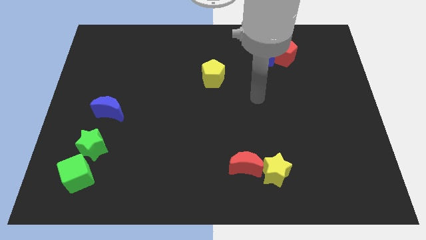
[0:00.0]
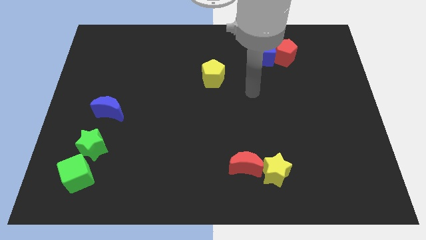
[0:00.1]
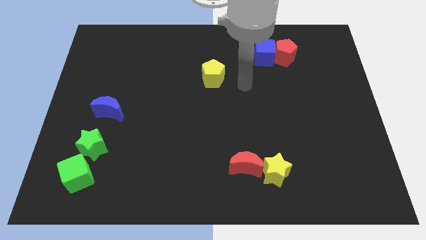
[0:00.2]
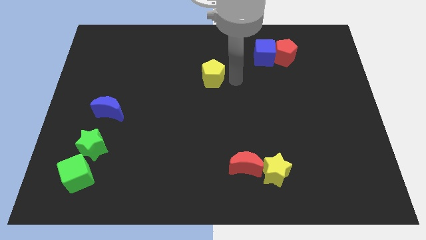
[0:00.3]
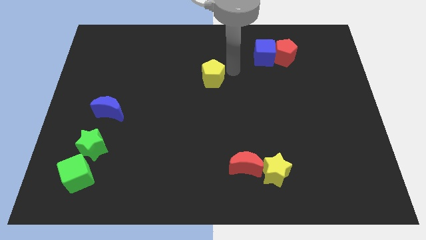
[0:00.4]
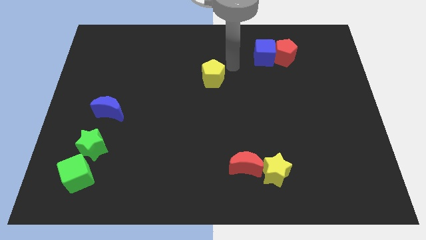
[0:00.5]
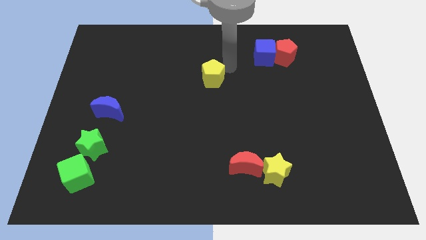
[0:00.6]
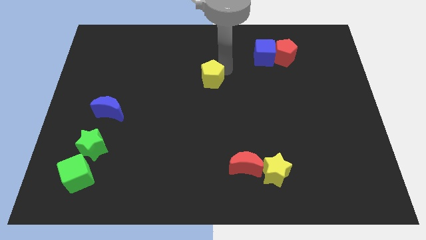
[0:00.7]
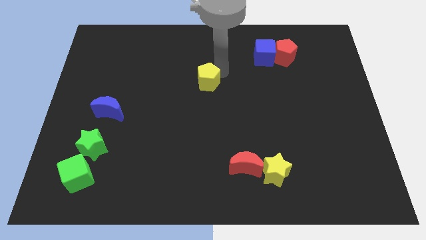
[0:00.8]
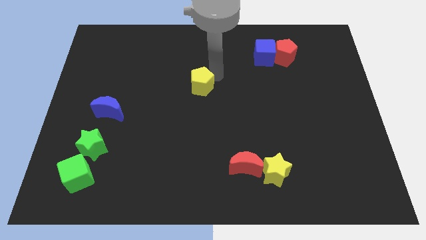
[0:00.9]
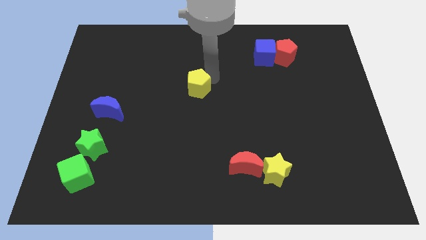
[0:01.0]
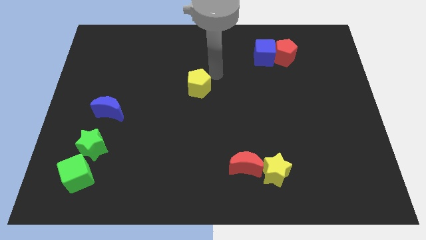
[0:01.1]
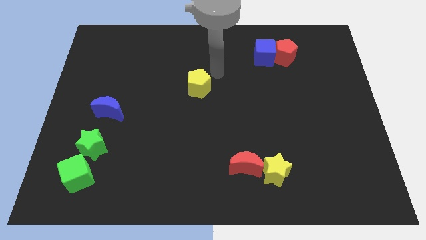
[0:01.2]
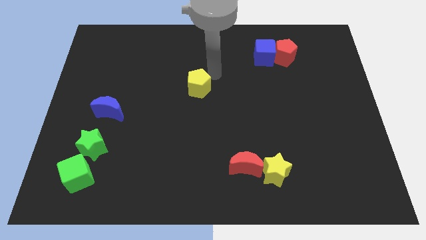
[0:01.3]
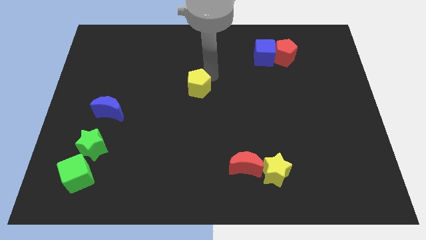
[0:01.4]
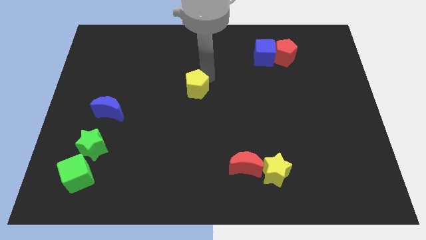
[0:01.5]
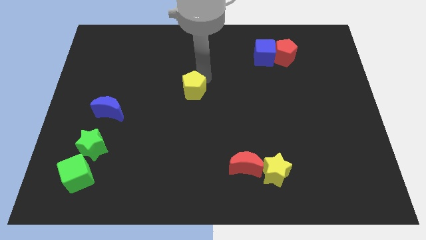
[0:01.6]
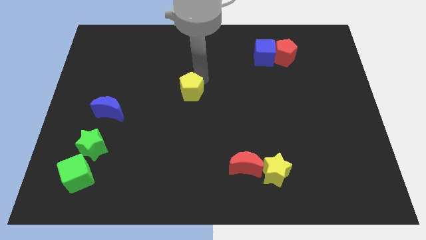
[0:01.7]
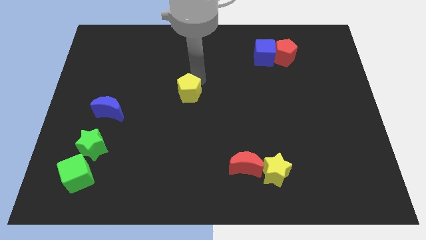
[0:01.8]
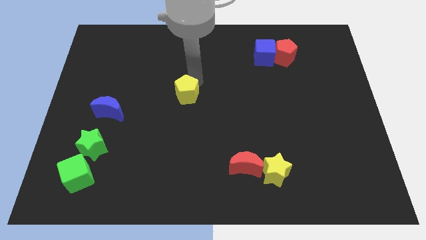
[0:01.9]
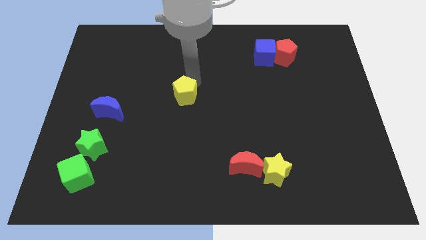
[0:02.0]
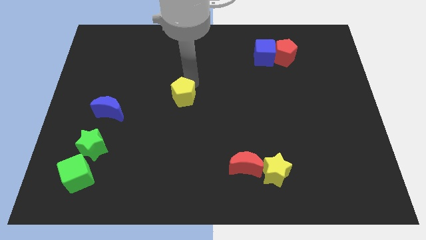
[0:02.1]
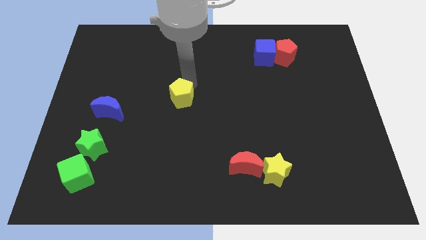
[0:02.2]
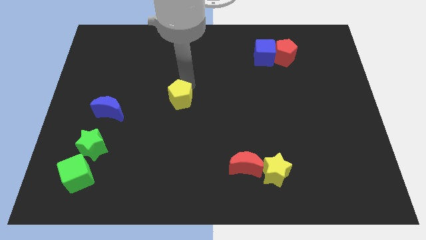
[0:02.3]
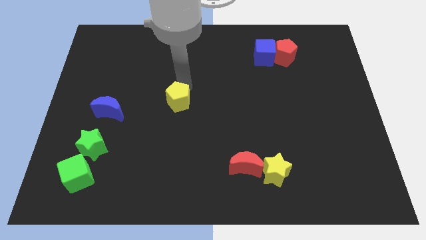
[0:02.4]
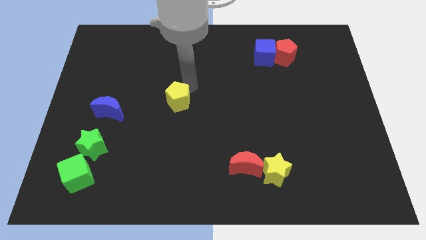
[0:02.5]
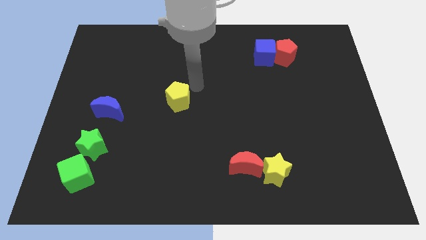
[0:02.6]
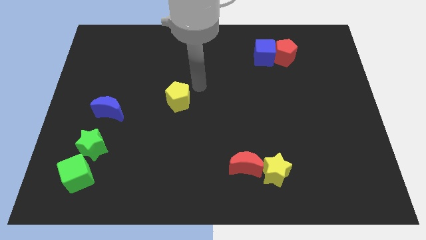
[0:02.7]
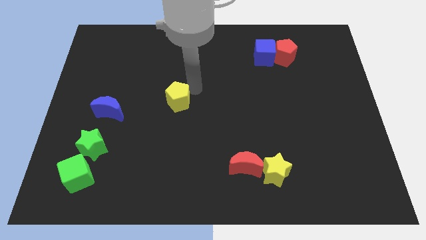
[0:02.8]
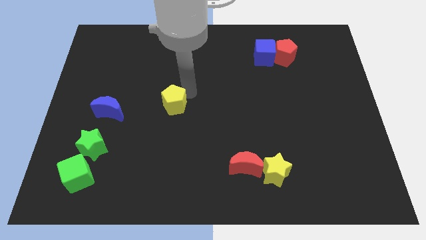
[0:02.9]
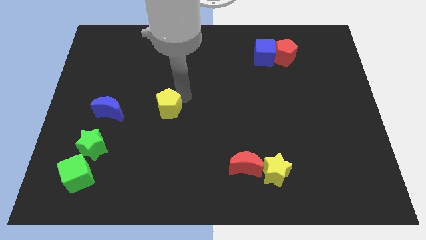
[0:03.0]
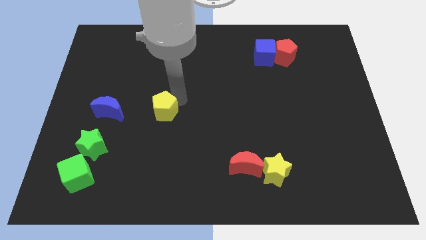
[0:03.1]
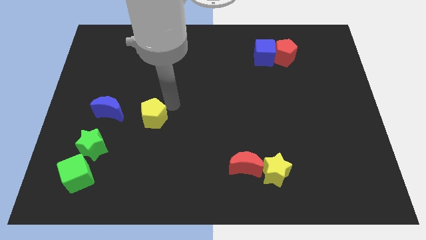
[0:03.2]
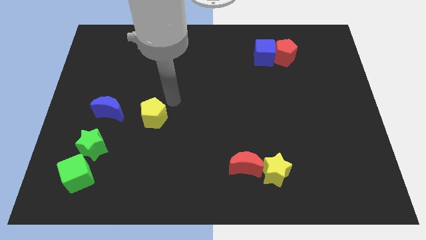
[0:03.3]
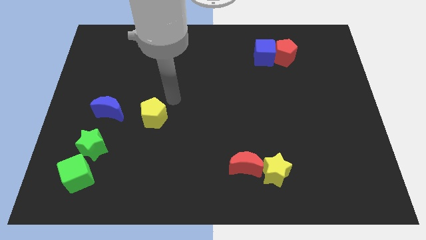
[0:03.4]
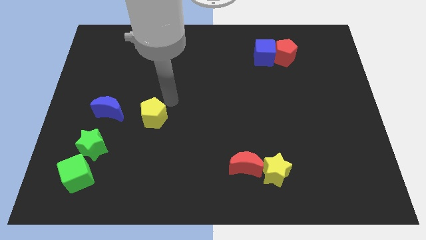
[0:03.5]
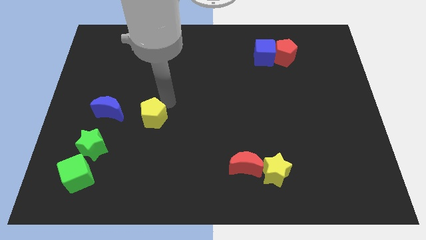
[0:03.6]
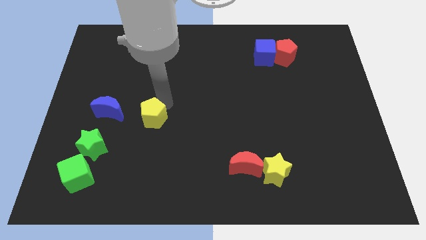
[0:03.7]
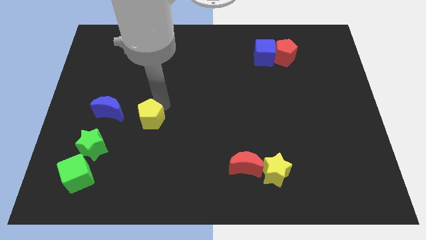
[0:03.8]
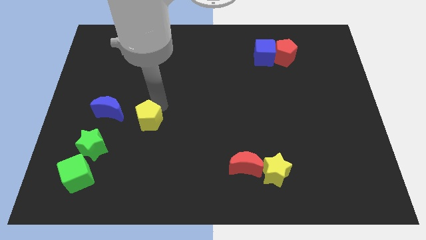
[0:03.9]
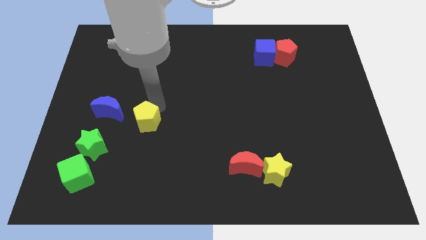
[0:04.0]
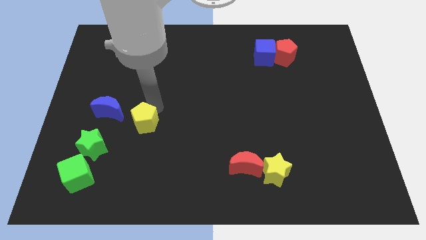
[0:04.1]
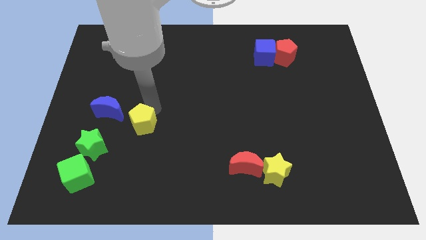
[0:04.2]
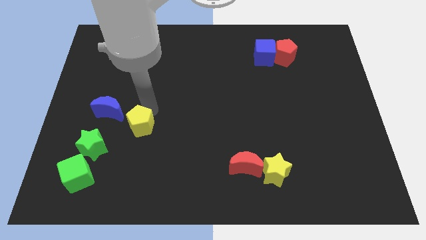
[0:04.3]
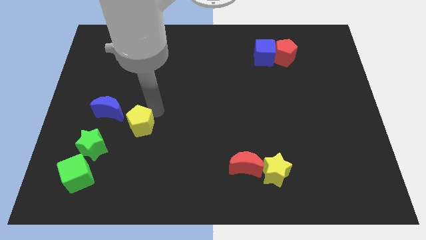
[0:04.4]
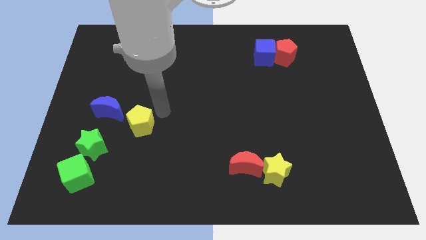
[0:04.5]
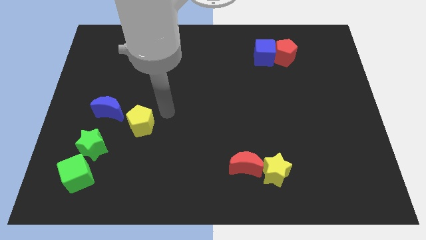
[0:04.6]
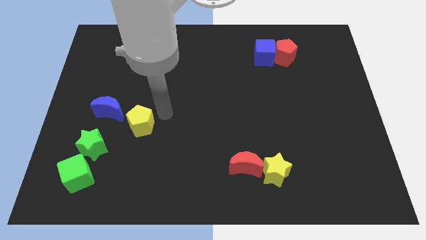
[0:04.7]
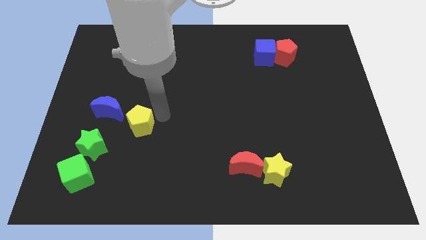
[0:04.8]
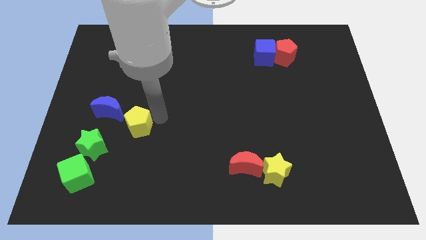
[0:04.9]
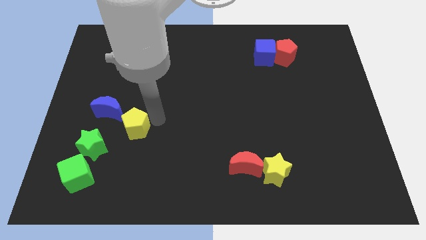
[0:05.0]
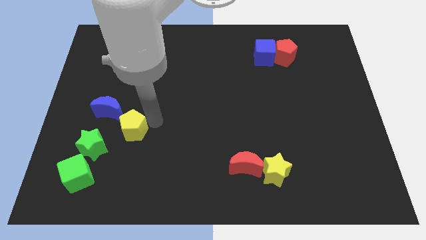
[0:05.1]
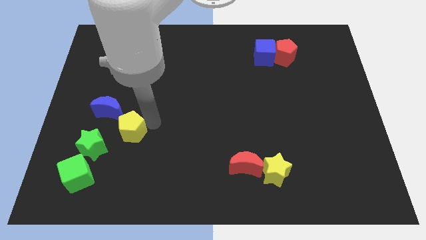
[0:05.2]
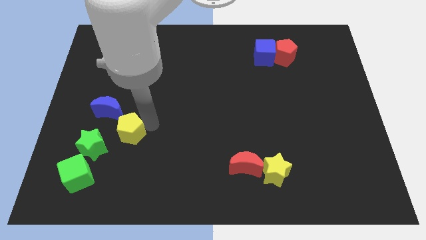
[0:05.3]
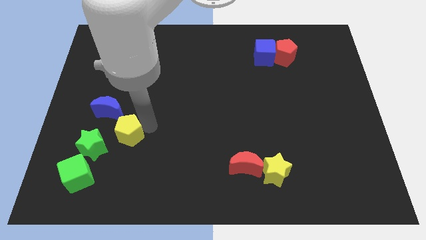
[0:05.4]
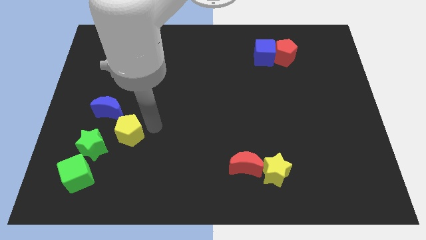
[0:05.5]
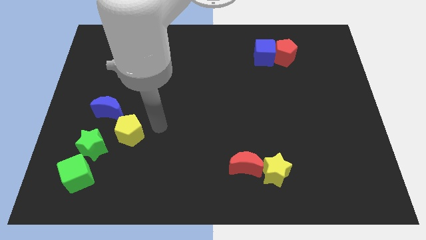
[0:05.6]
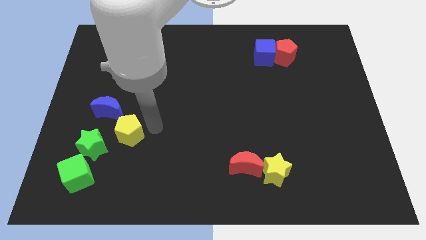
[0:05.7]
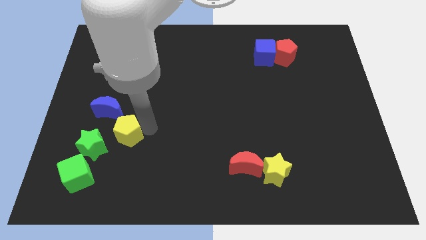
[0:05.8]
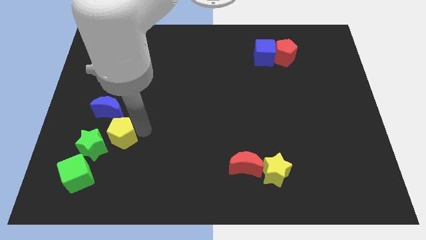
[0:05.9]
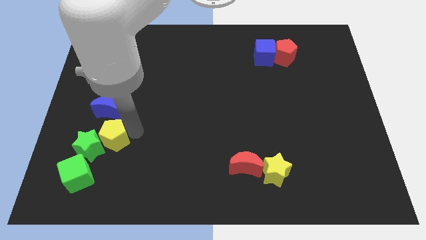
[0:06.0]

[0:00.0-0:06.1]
put the yellow pentagon to the green star

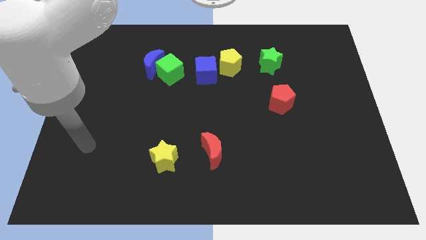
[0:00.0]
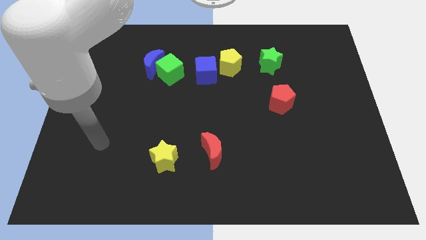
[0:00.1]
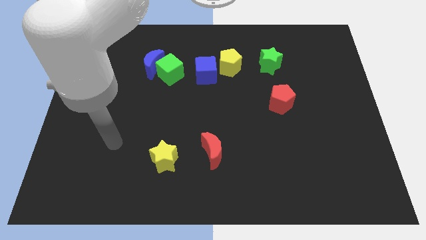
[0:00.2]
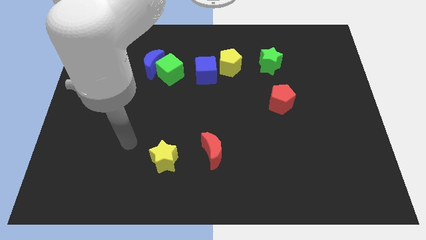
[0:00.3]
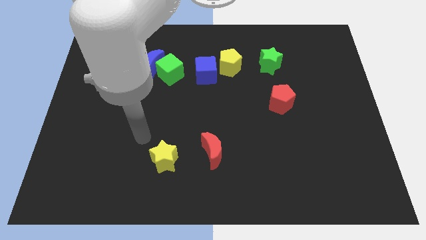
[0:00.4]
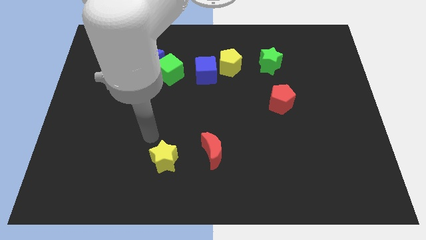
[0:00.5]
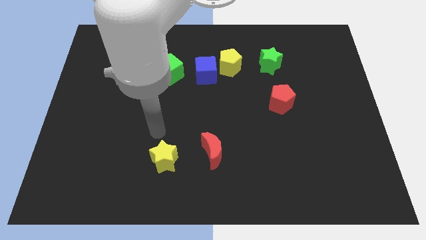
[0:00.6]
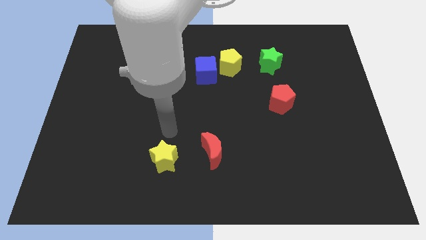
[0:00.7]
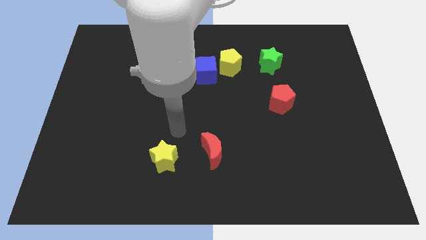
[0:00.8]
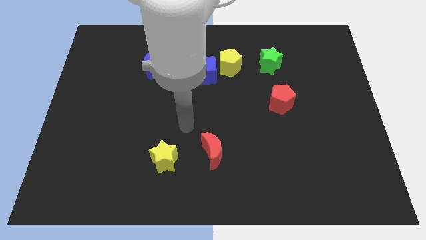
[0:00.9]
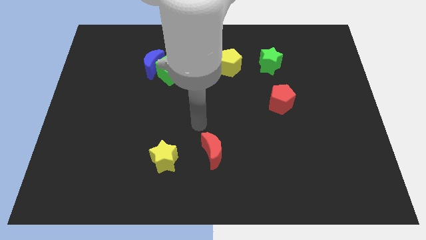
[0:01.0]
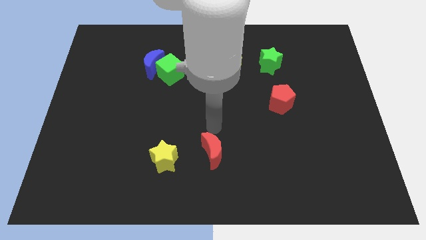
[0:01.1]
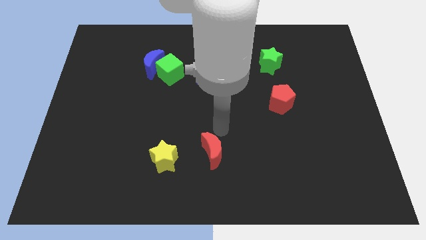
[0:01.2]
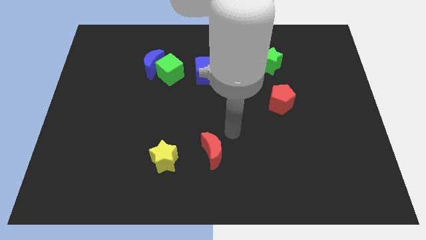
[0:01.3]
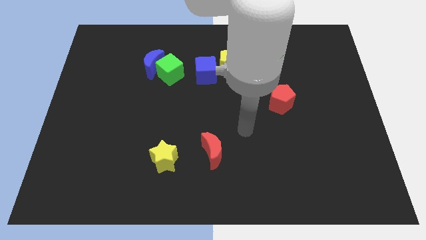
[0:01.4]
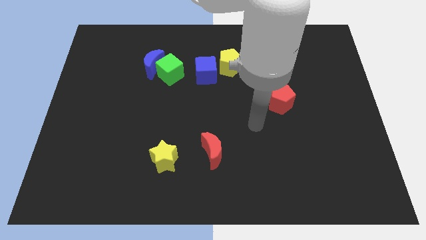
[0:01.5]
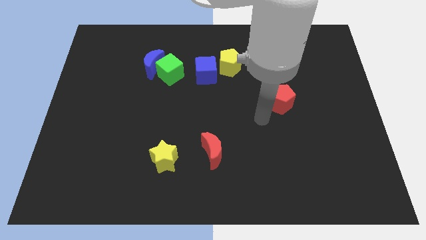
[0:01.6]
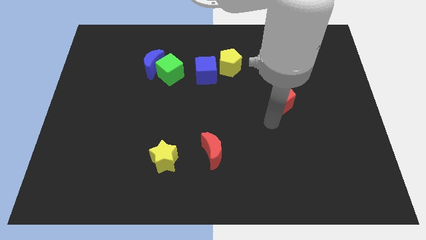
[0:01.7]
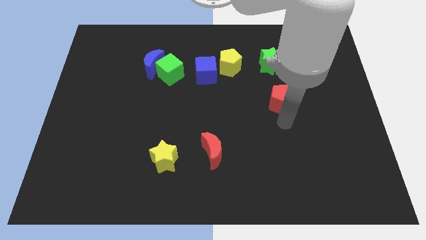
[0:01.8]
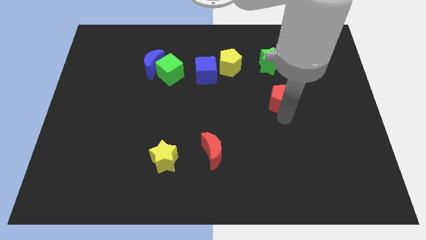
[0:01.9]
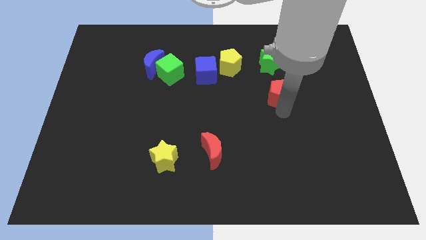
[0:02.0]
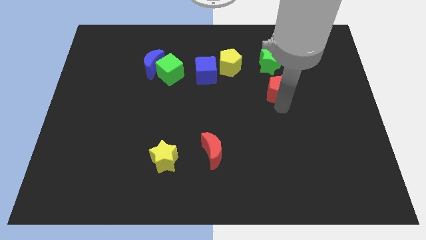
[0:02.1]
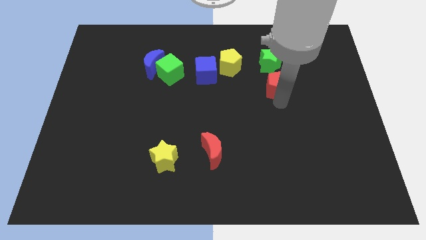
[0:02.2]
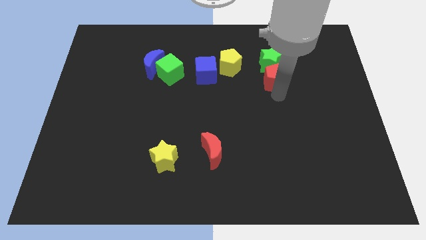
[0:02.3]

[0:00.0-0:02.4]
push the red pentagon towards the green star
